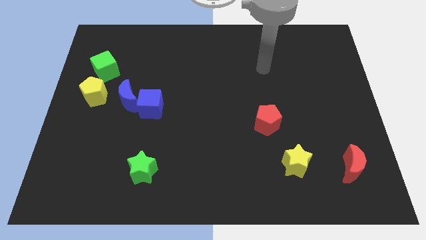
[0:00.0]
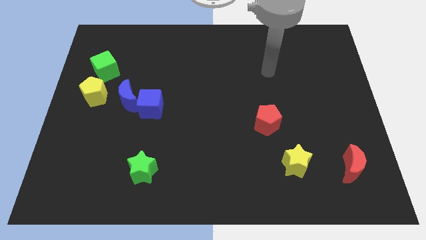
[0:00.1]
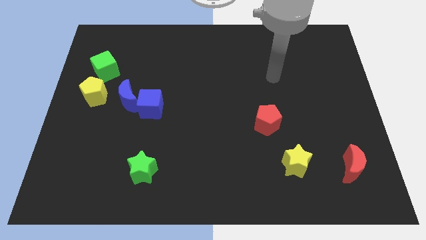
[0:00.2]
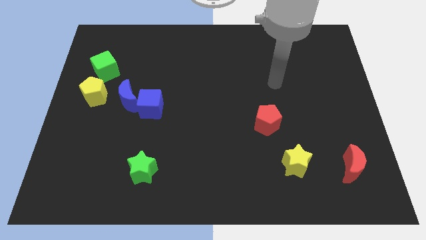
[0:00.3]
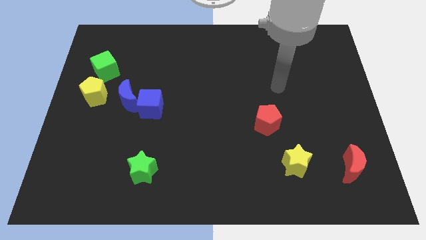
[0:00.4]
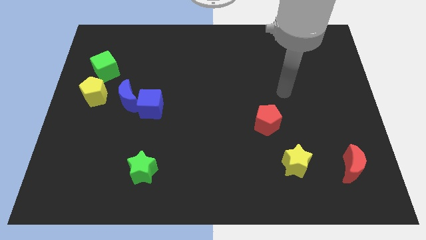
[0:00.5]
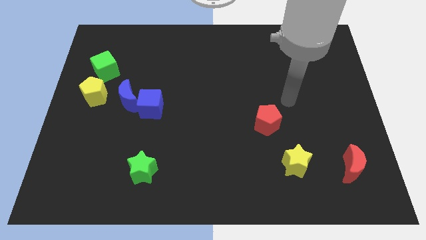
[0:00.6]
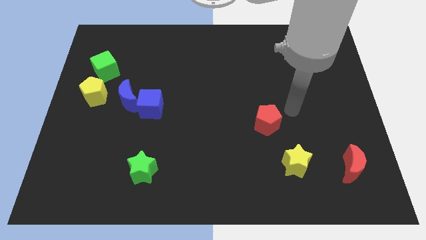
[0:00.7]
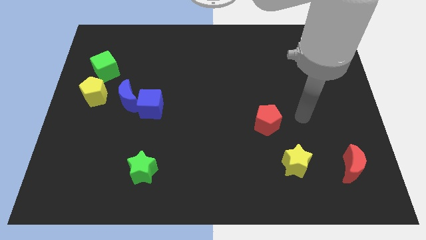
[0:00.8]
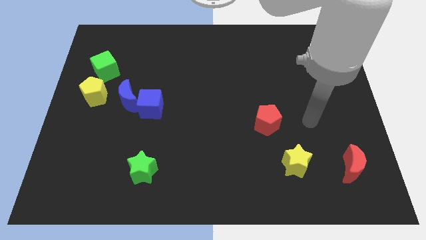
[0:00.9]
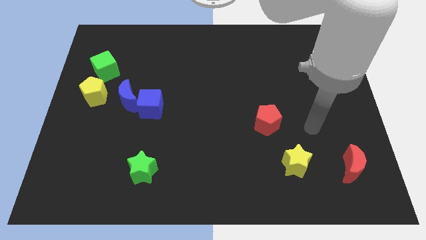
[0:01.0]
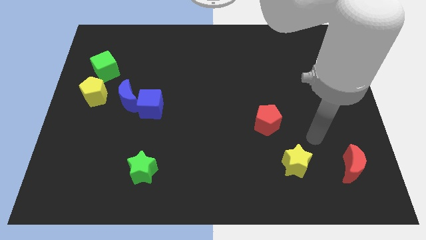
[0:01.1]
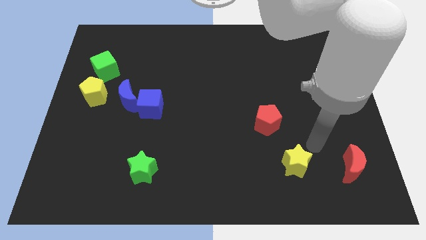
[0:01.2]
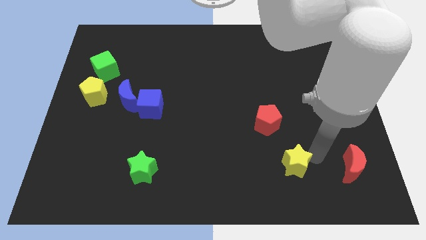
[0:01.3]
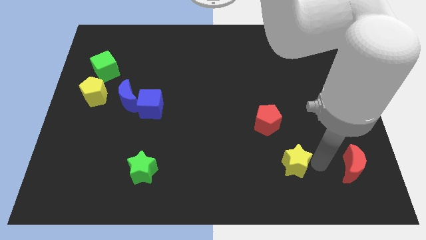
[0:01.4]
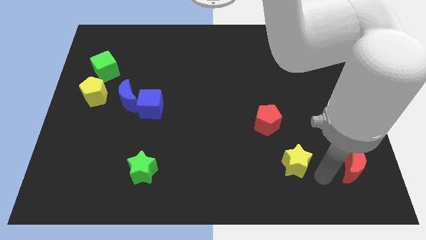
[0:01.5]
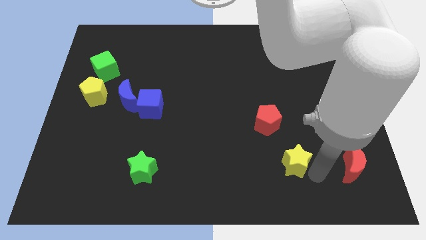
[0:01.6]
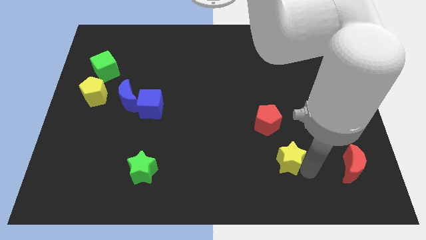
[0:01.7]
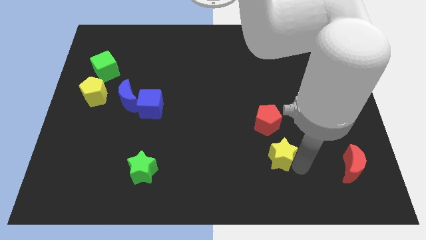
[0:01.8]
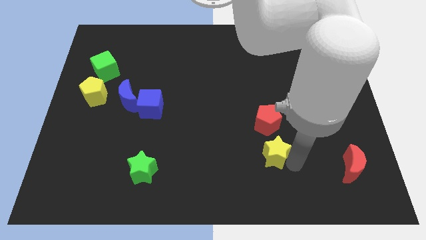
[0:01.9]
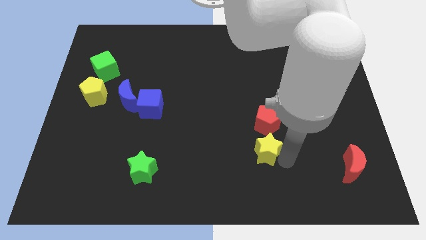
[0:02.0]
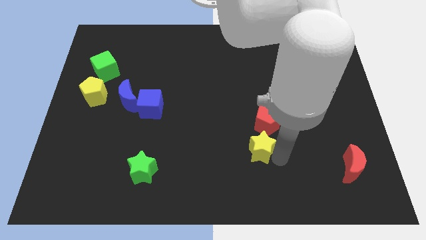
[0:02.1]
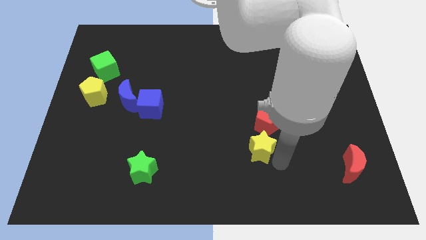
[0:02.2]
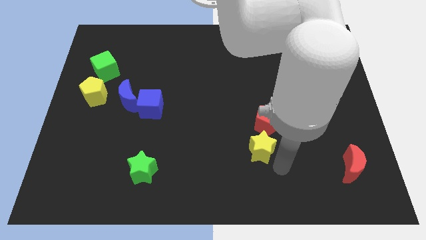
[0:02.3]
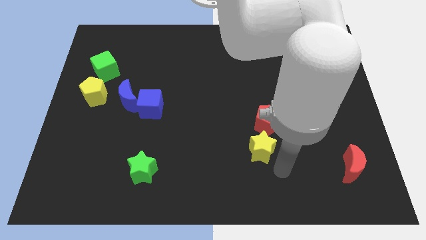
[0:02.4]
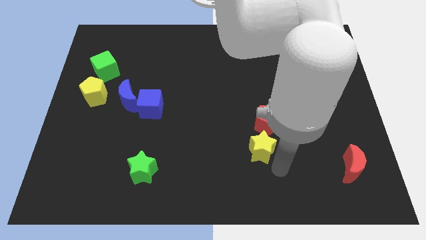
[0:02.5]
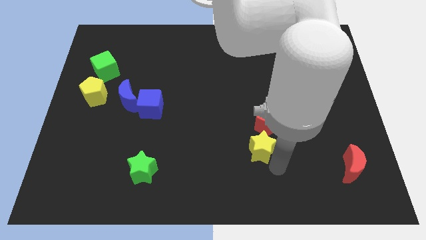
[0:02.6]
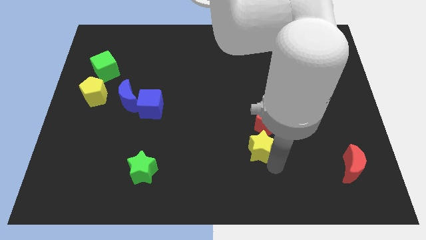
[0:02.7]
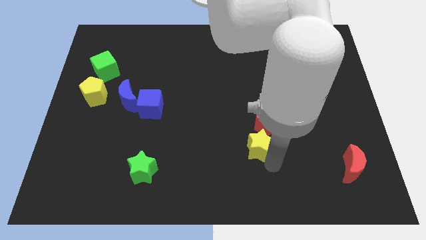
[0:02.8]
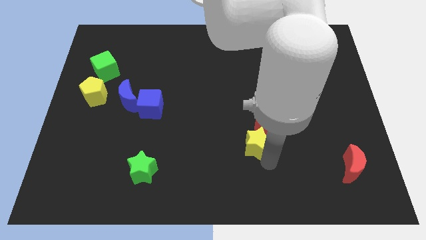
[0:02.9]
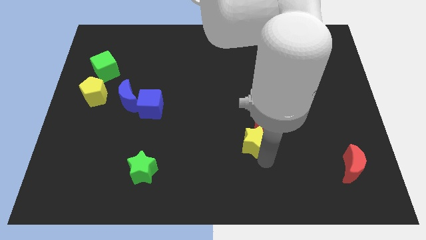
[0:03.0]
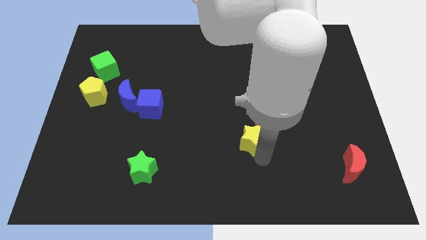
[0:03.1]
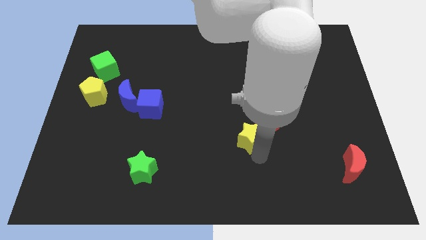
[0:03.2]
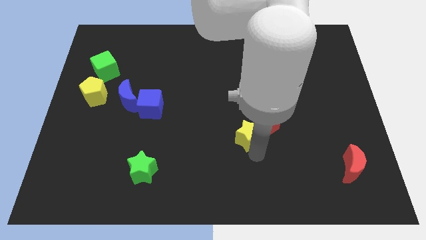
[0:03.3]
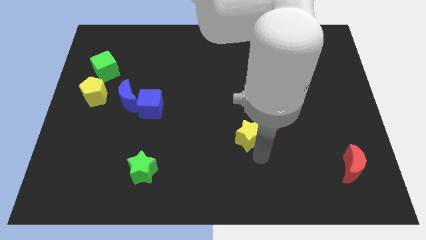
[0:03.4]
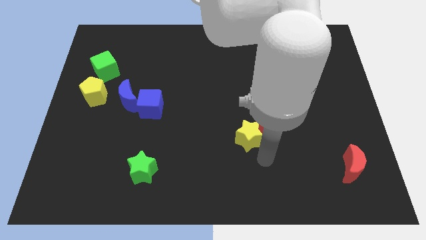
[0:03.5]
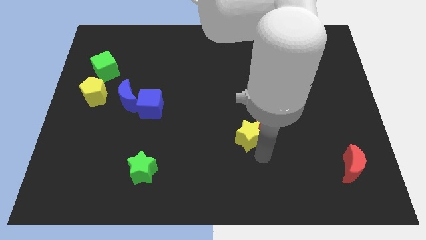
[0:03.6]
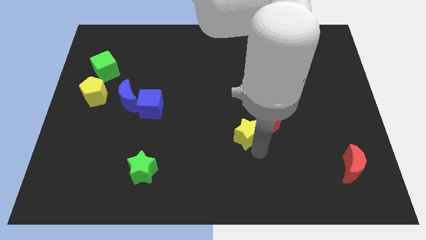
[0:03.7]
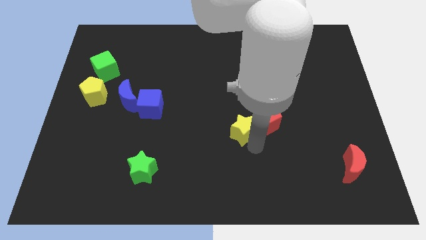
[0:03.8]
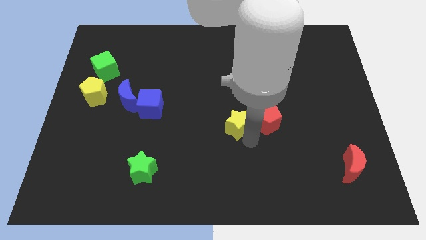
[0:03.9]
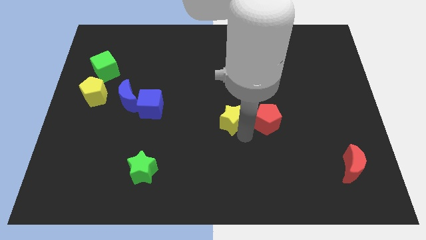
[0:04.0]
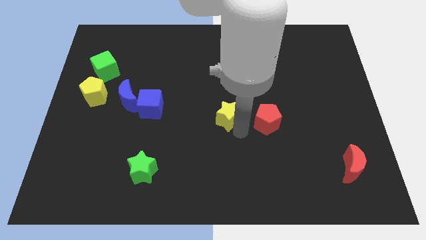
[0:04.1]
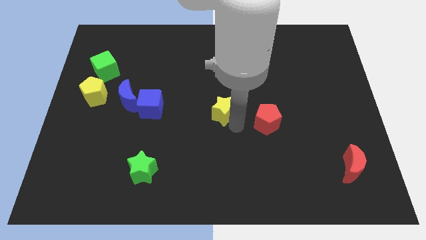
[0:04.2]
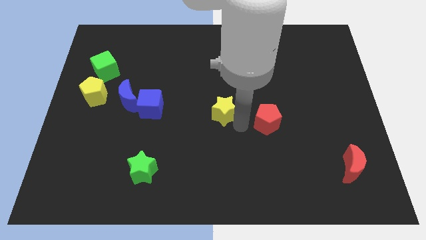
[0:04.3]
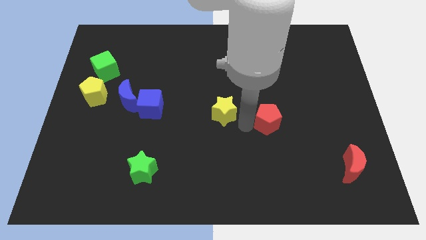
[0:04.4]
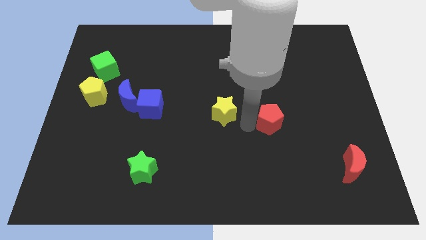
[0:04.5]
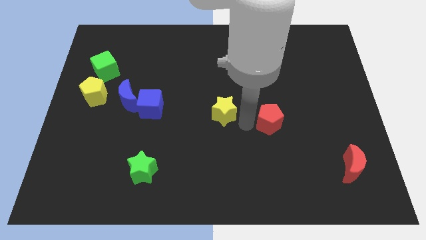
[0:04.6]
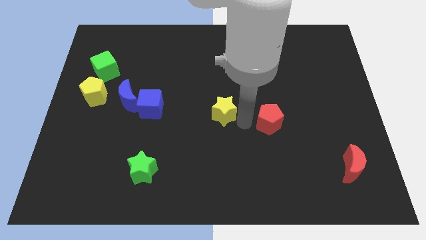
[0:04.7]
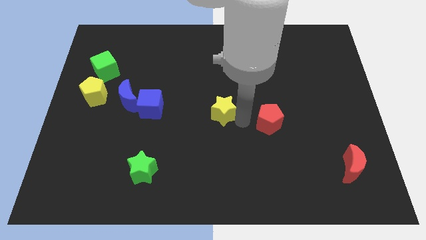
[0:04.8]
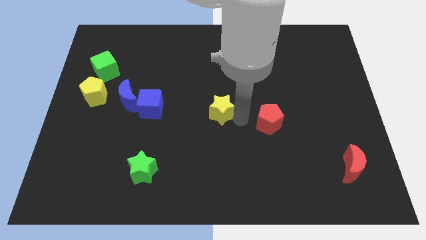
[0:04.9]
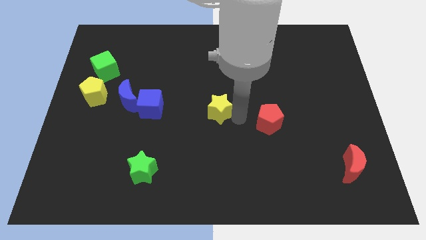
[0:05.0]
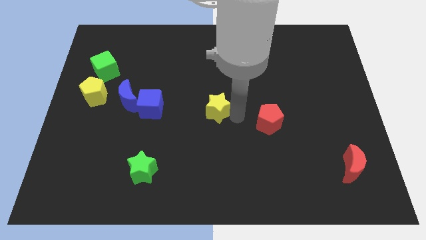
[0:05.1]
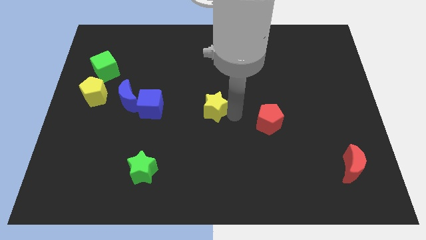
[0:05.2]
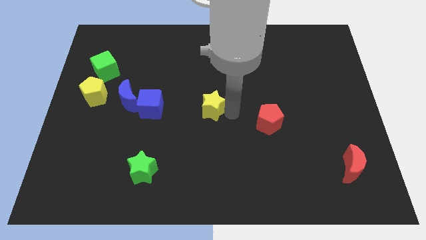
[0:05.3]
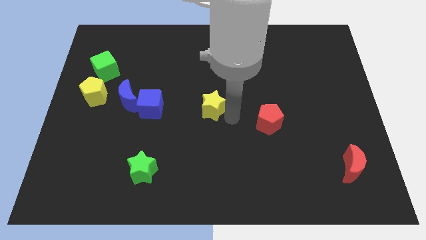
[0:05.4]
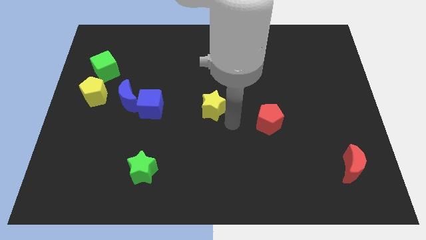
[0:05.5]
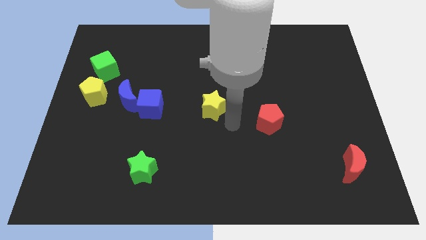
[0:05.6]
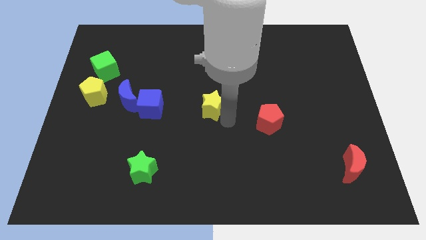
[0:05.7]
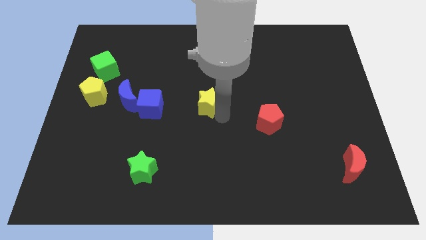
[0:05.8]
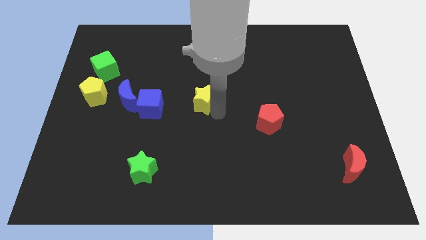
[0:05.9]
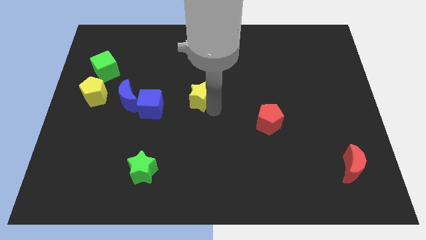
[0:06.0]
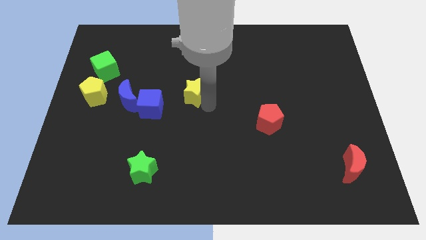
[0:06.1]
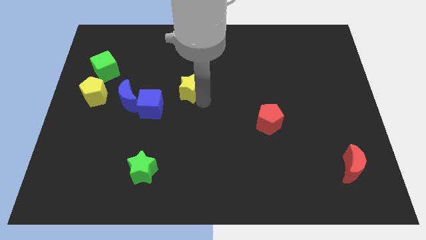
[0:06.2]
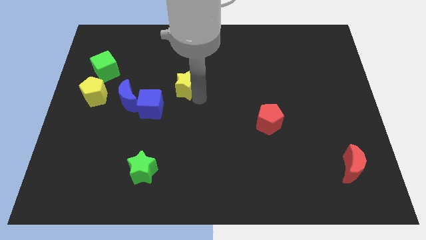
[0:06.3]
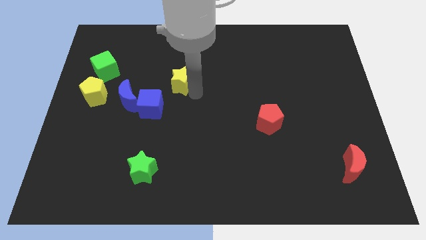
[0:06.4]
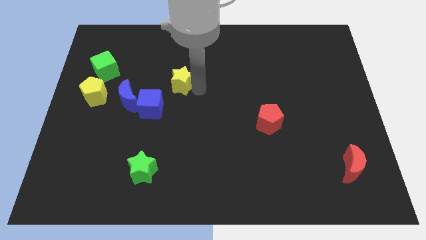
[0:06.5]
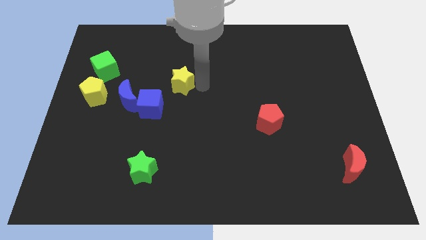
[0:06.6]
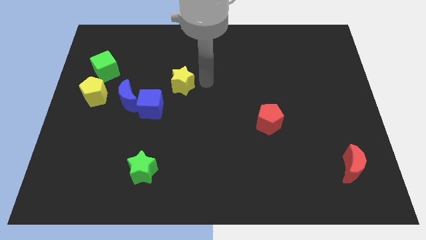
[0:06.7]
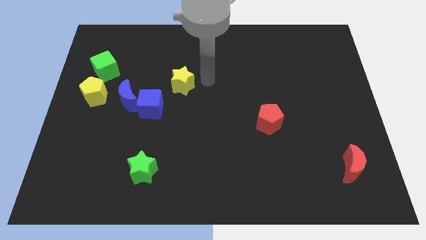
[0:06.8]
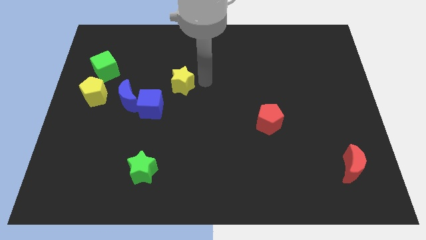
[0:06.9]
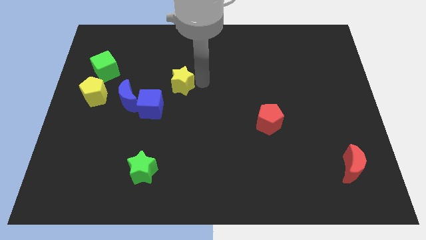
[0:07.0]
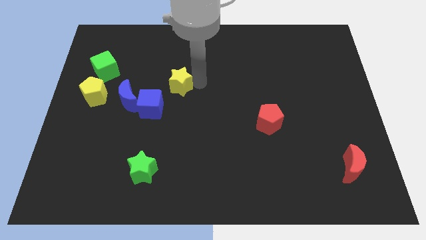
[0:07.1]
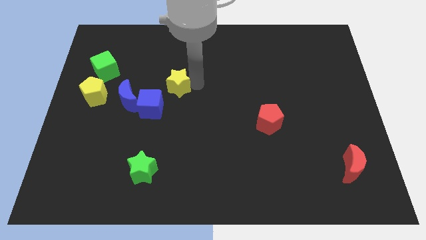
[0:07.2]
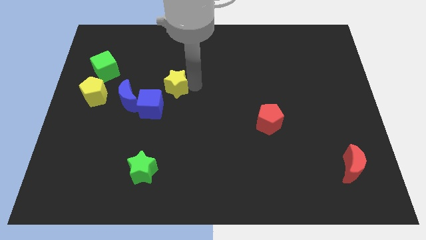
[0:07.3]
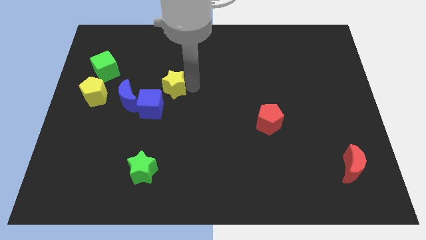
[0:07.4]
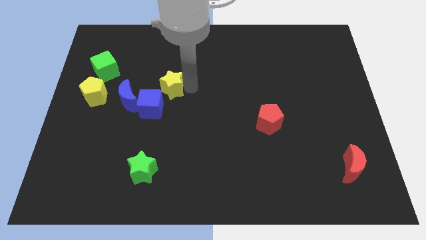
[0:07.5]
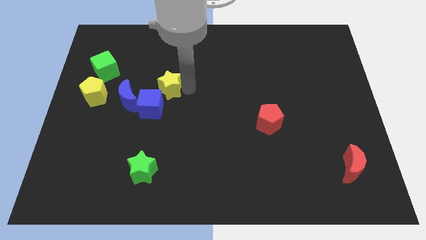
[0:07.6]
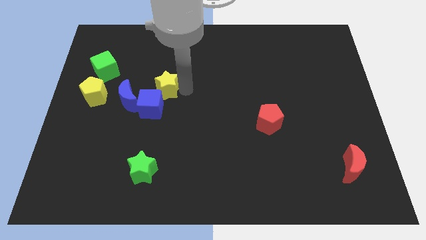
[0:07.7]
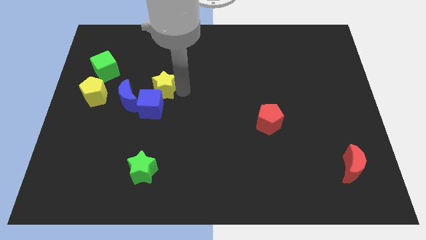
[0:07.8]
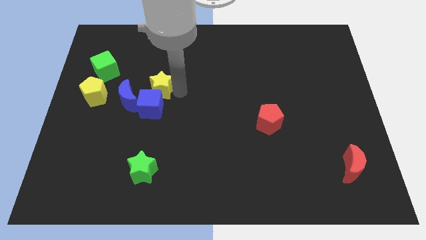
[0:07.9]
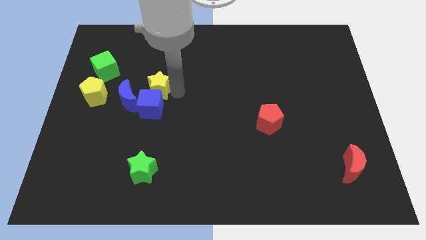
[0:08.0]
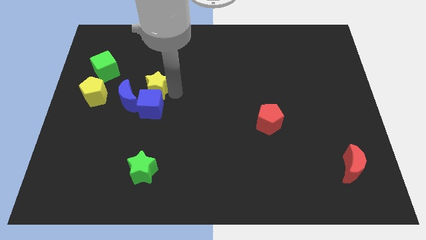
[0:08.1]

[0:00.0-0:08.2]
put the yellow star to the top left of the blue cube
